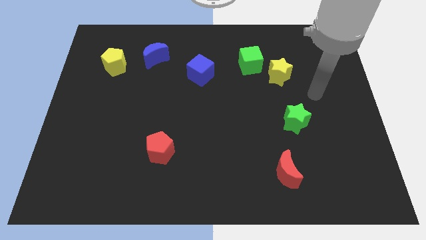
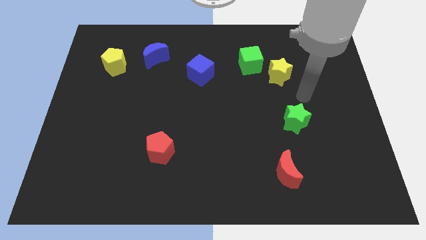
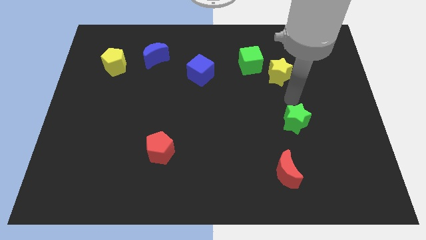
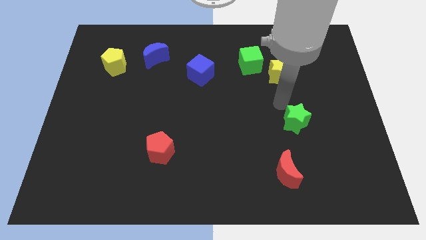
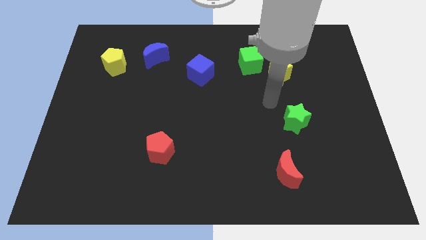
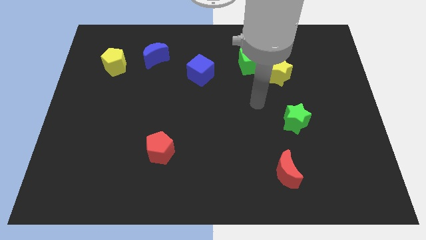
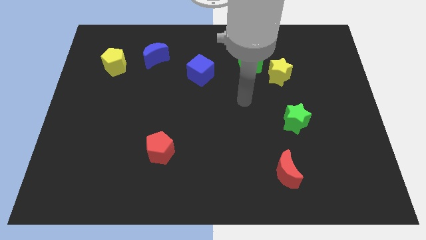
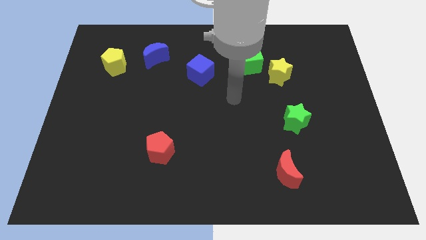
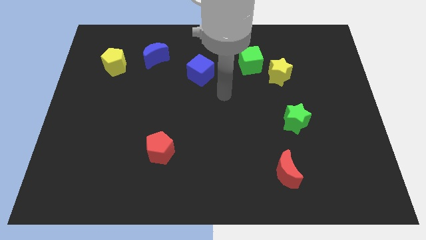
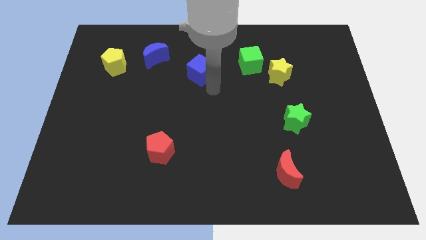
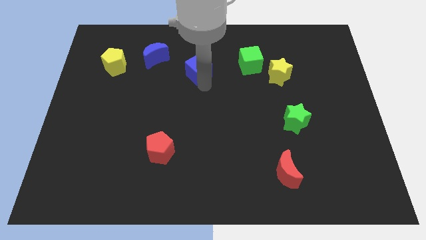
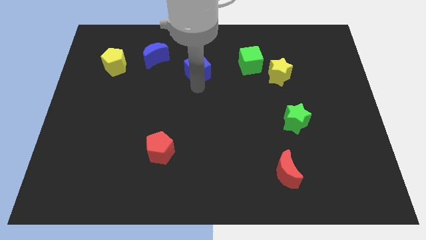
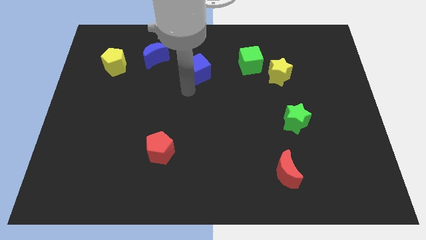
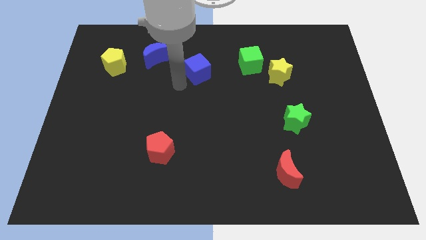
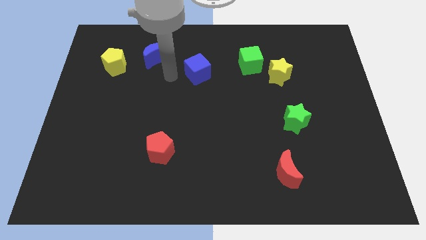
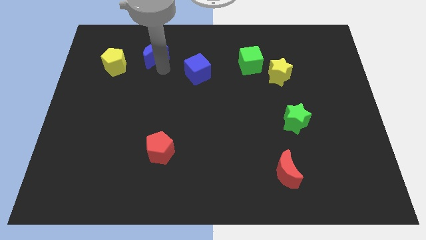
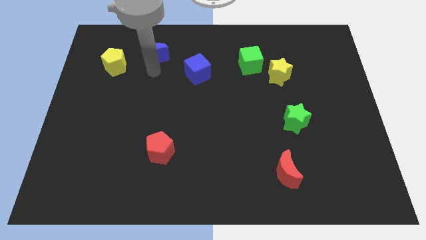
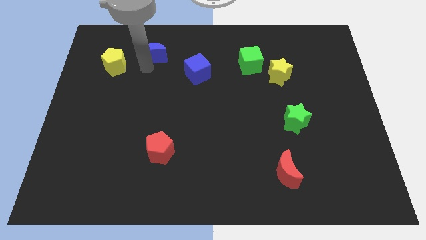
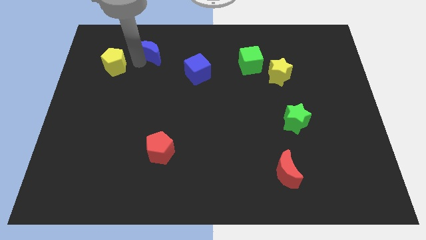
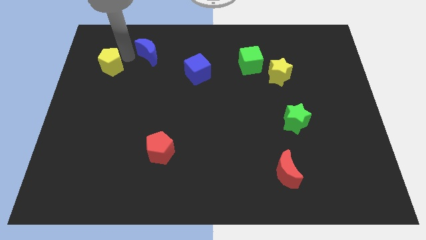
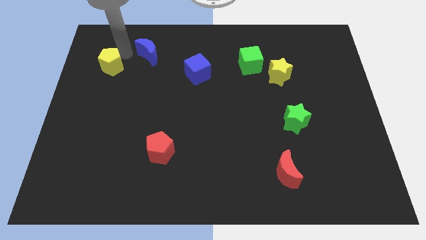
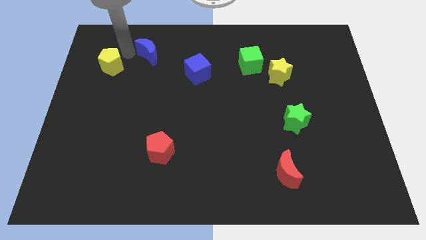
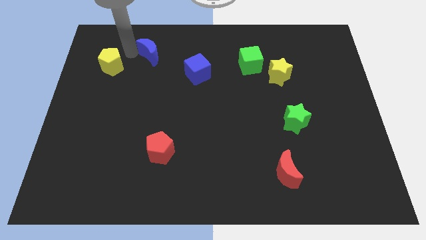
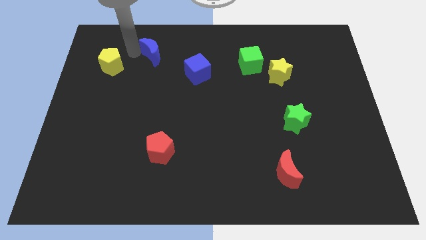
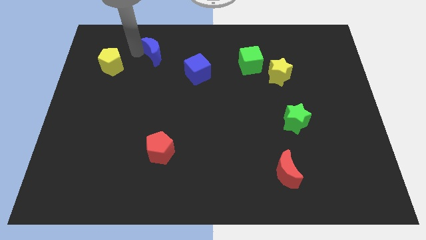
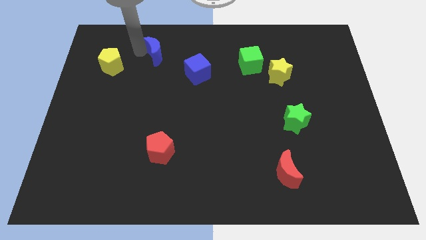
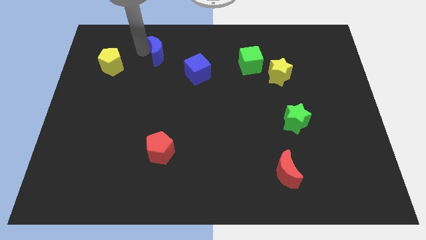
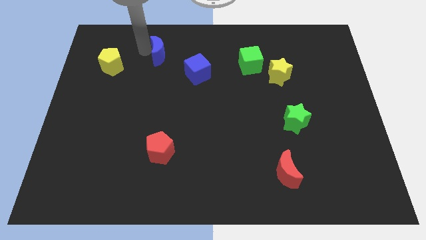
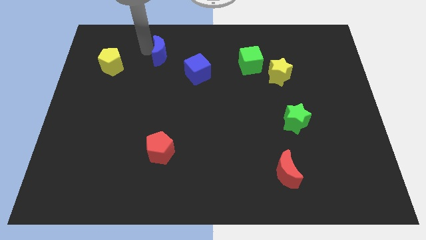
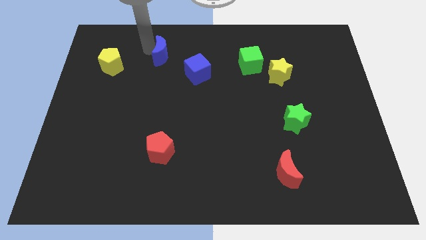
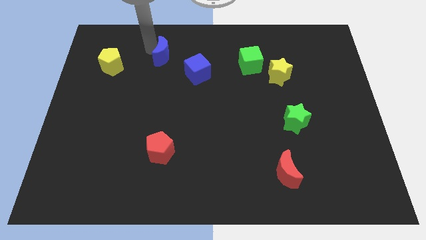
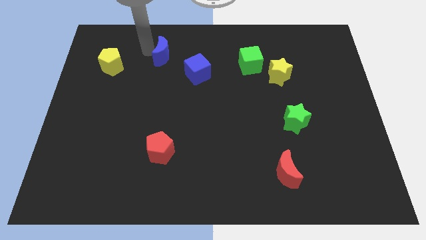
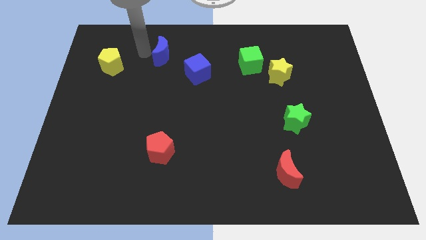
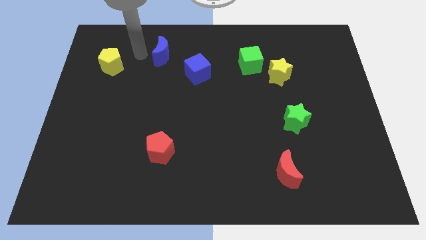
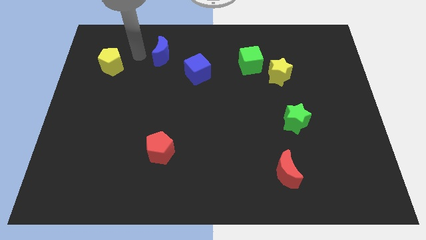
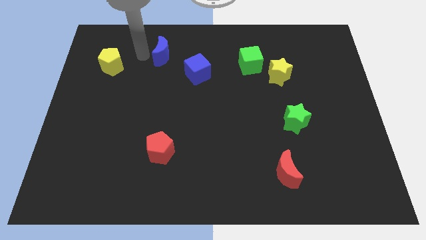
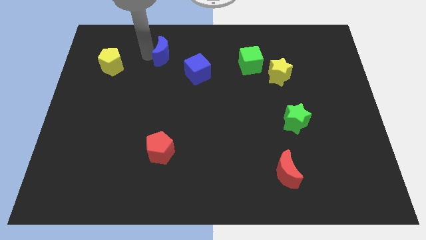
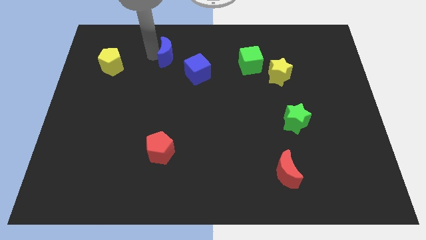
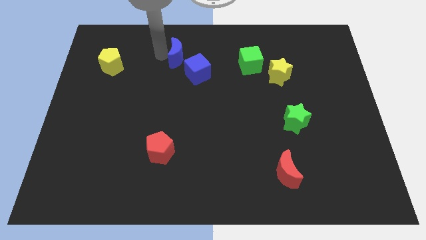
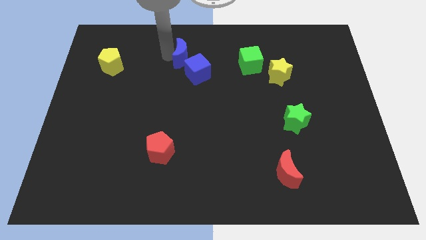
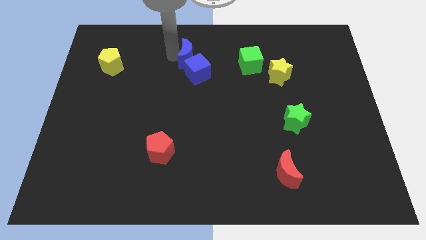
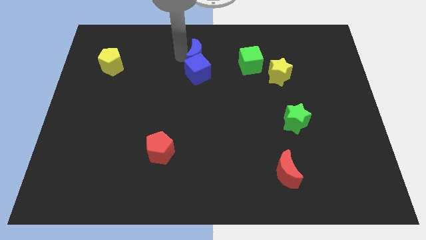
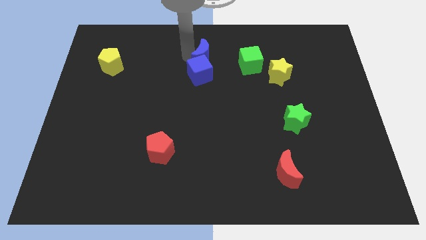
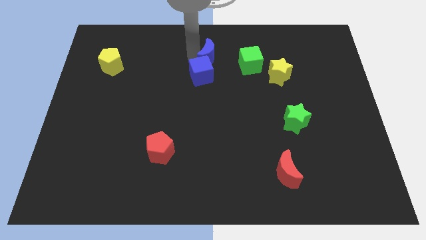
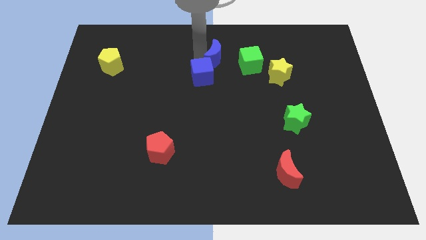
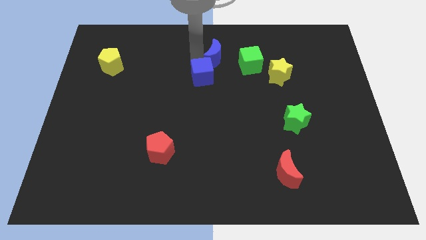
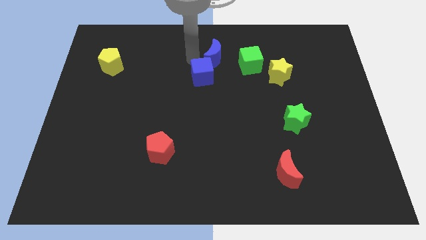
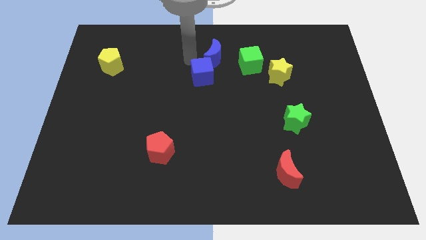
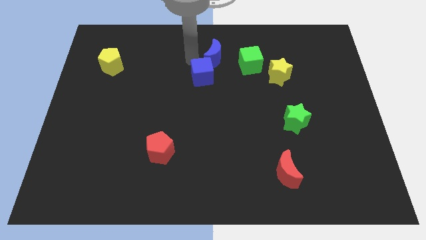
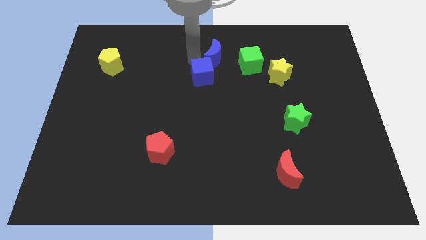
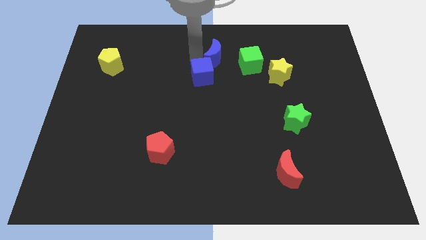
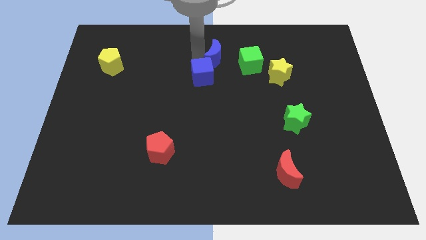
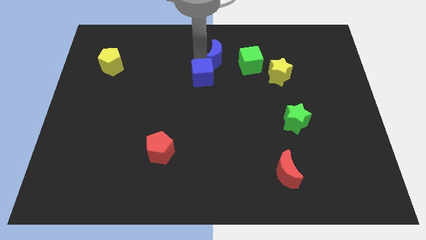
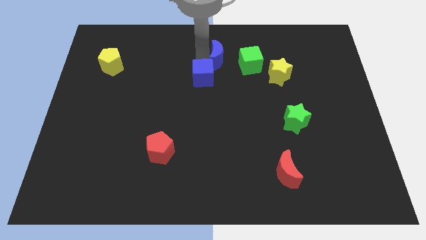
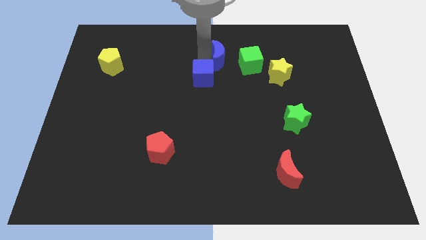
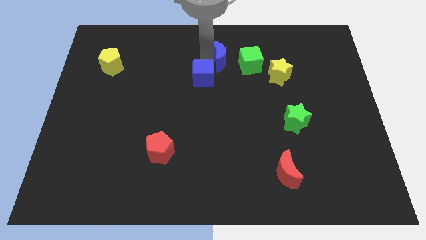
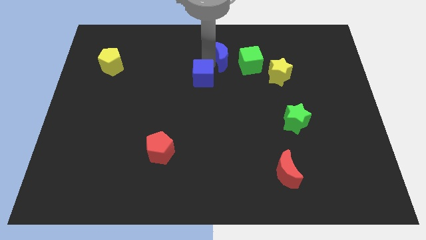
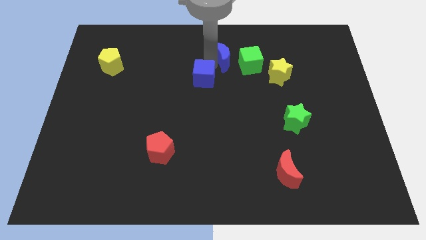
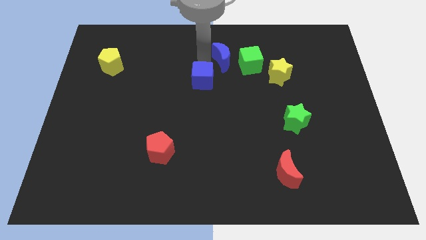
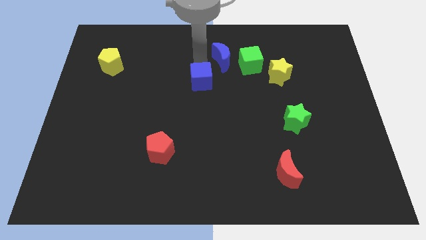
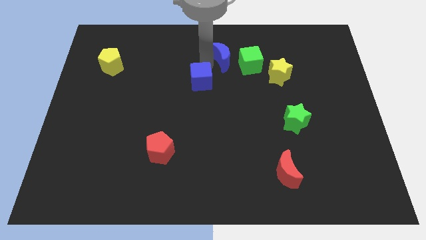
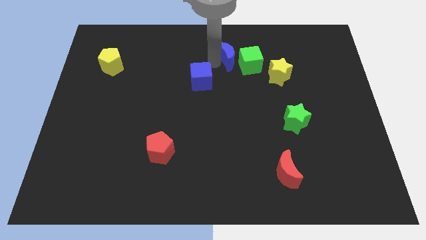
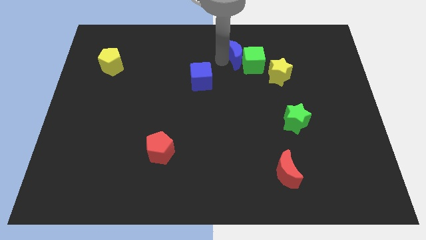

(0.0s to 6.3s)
slide the blue moon right

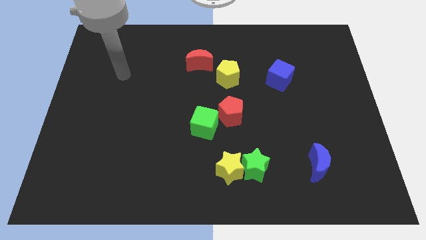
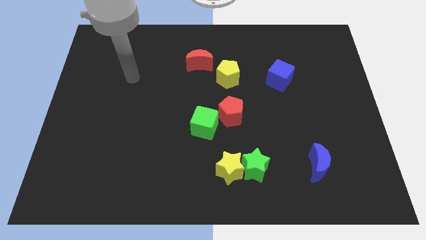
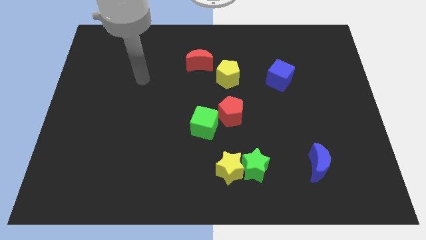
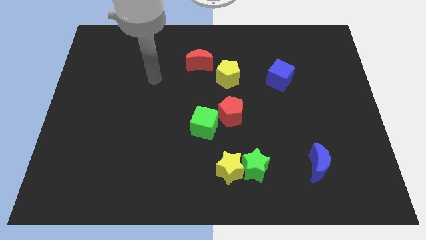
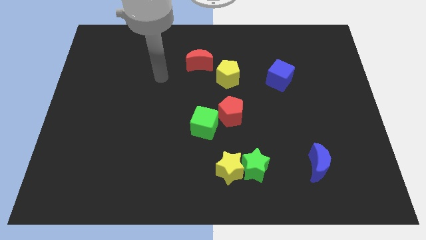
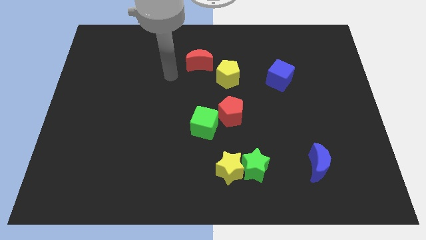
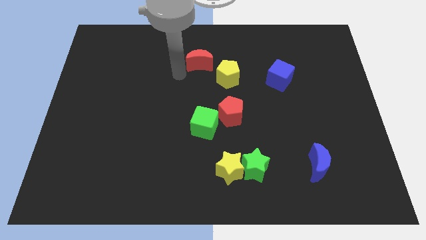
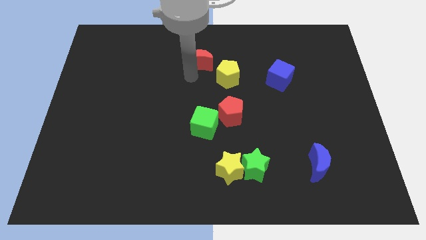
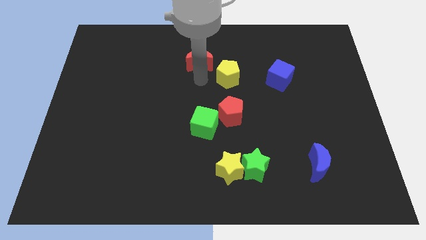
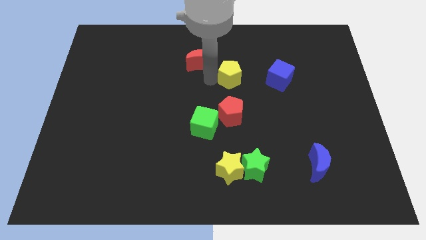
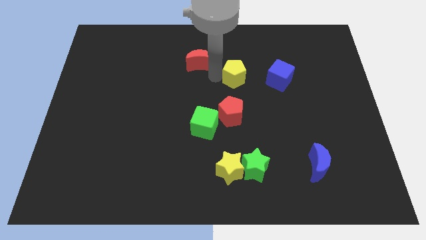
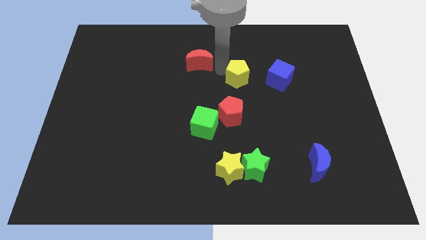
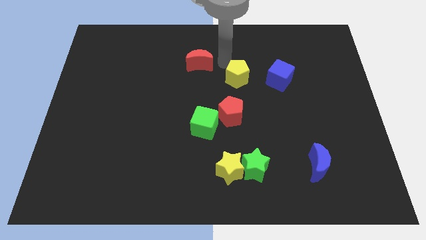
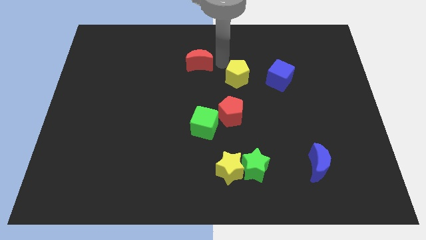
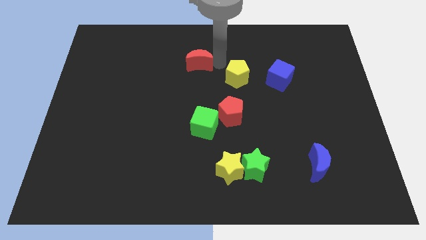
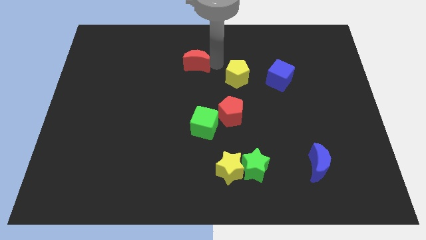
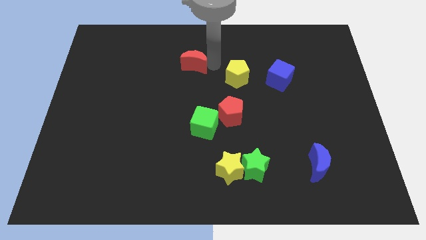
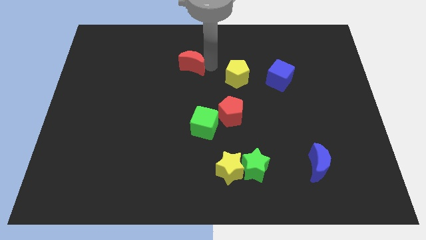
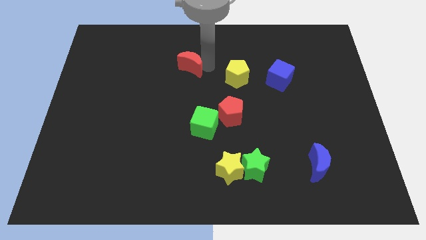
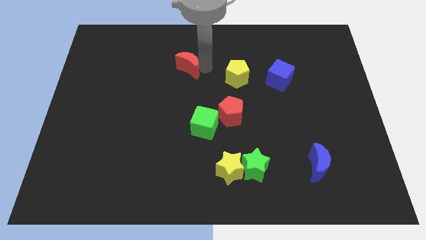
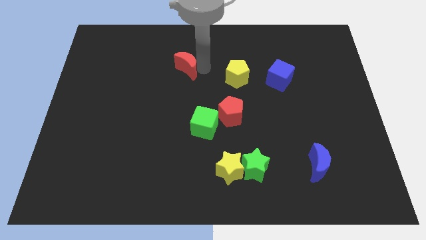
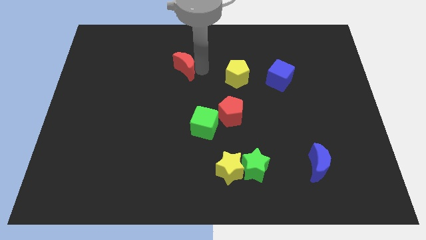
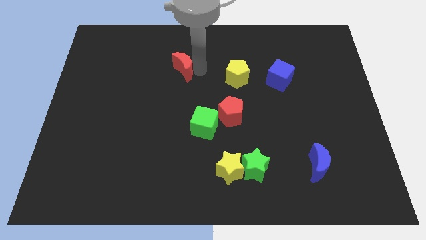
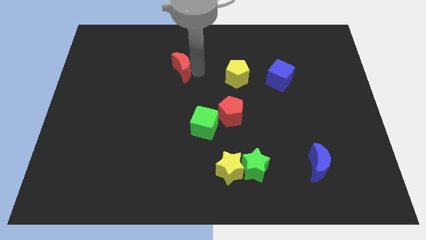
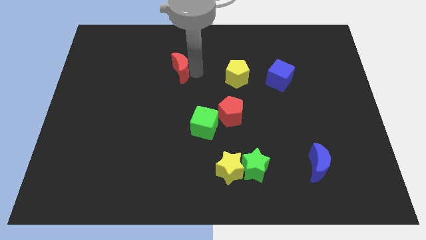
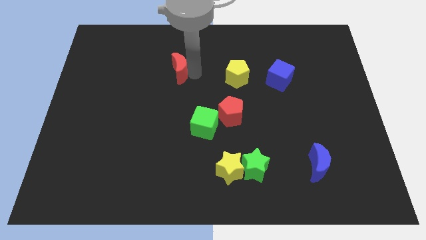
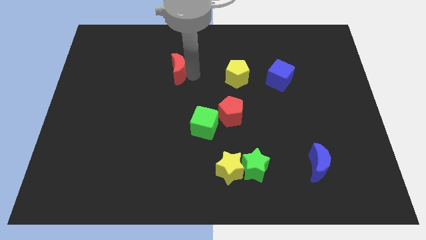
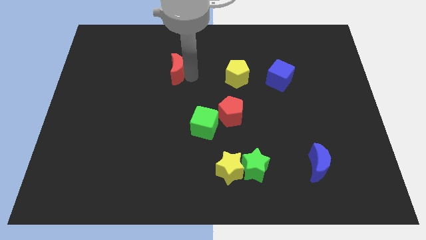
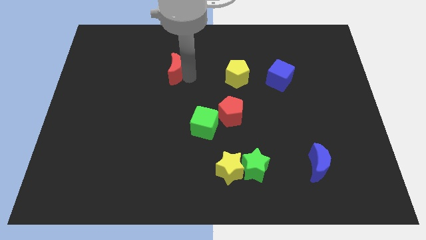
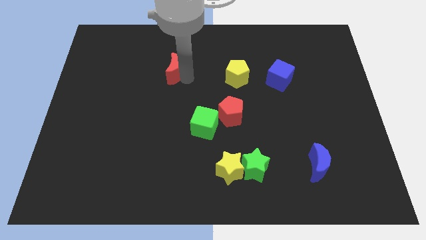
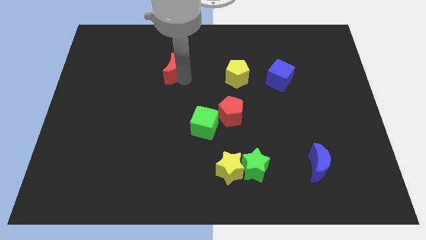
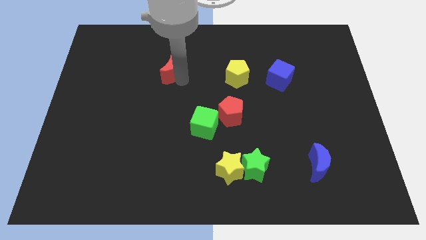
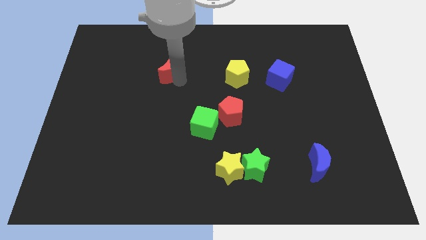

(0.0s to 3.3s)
move the red moon a little bit to the left
